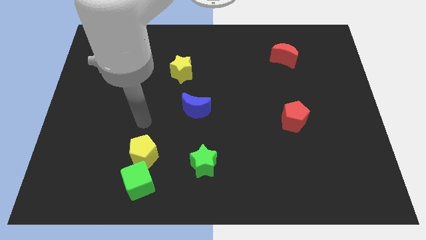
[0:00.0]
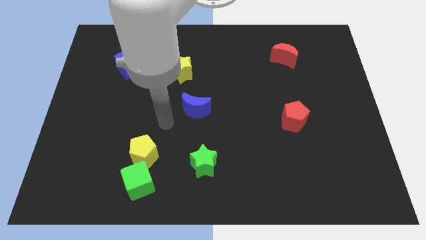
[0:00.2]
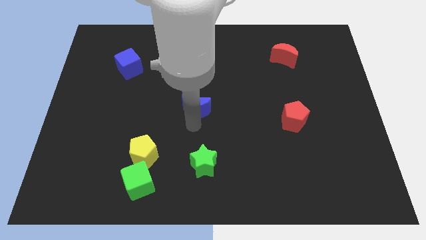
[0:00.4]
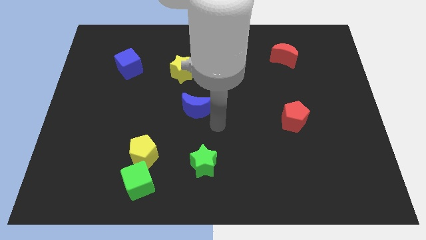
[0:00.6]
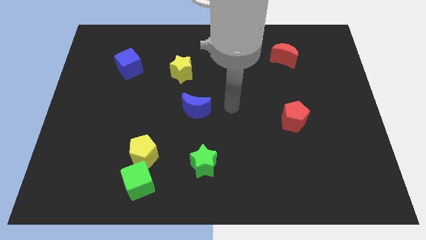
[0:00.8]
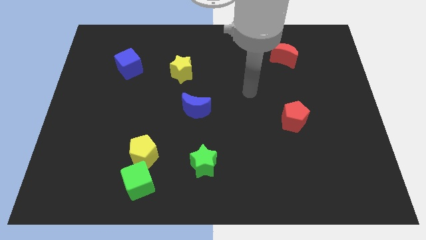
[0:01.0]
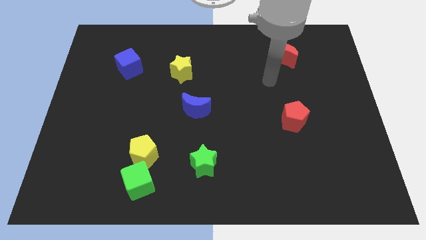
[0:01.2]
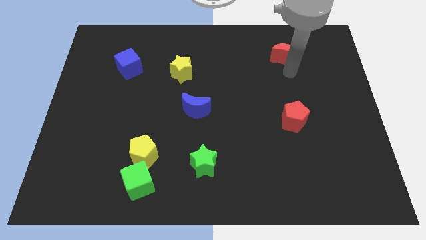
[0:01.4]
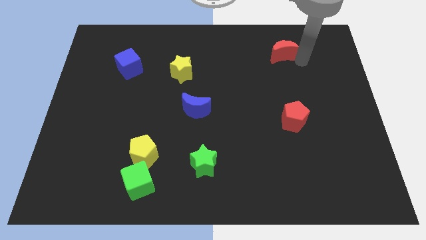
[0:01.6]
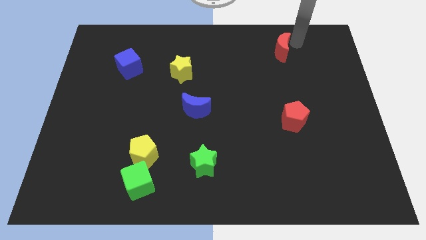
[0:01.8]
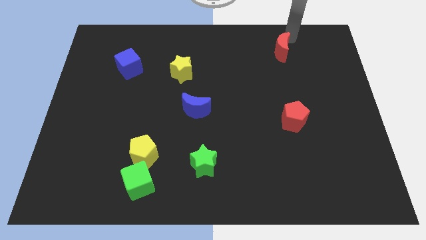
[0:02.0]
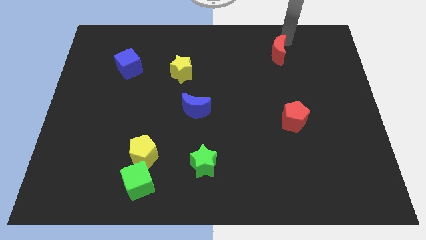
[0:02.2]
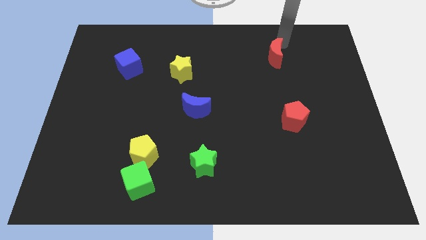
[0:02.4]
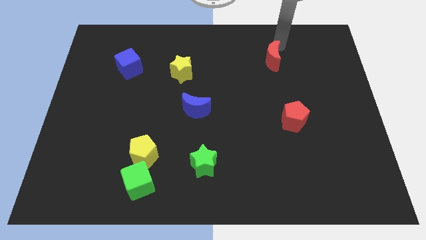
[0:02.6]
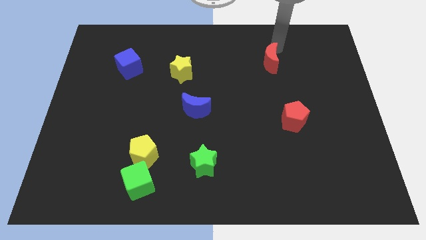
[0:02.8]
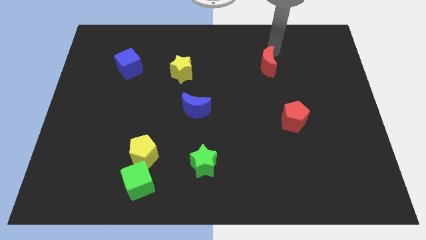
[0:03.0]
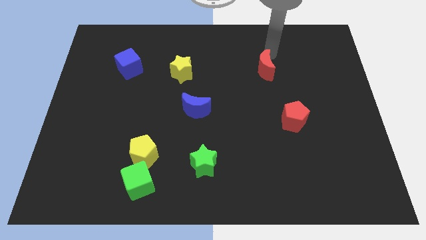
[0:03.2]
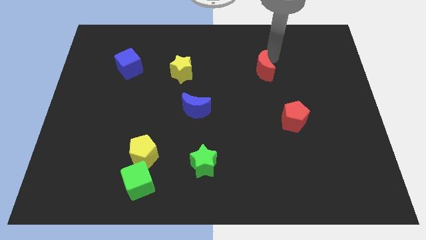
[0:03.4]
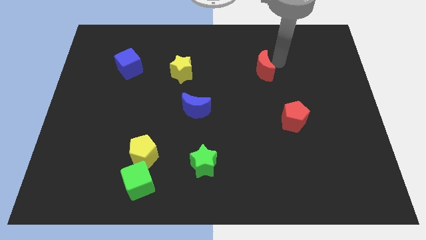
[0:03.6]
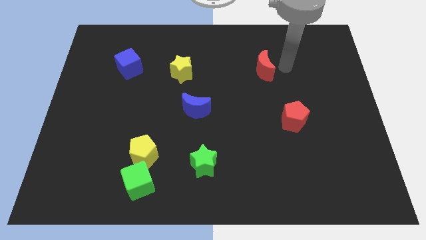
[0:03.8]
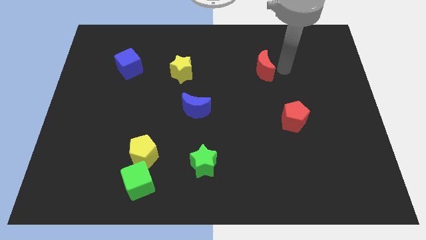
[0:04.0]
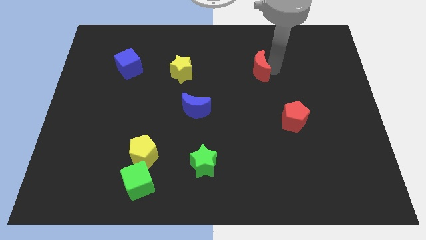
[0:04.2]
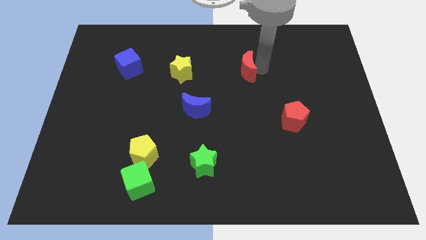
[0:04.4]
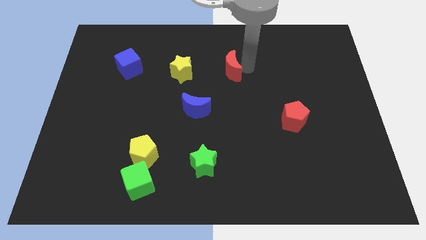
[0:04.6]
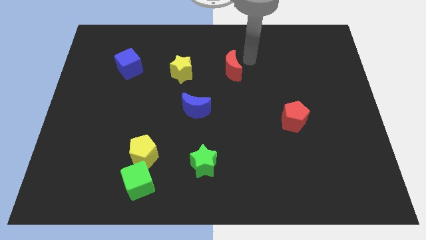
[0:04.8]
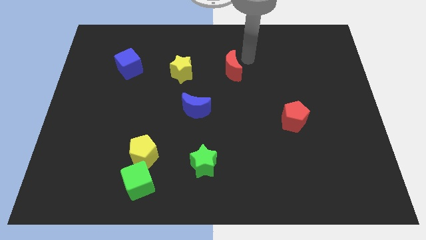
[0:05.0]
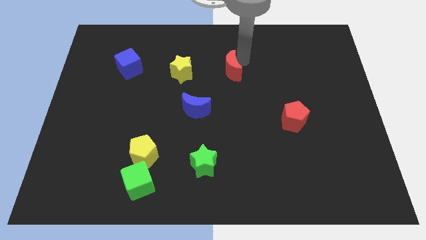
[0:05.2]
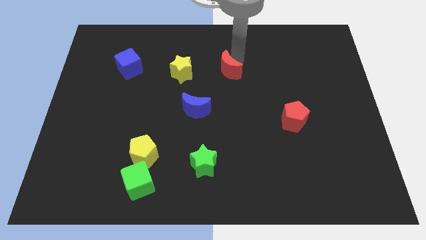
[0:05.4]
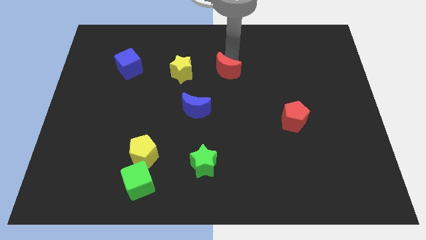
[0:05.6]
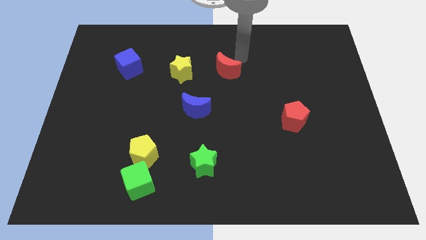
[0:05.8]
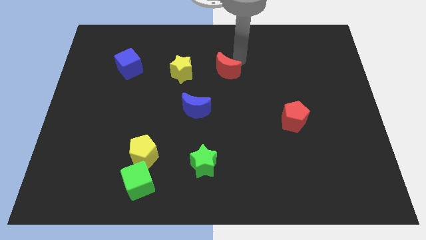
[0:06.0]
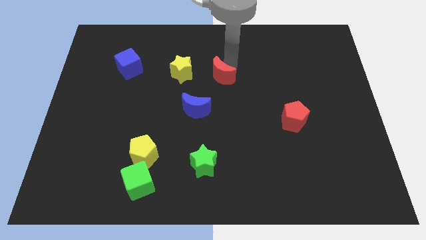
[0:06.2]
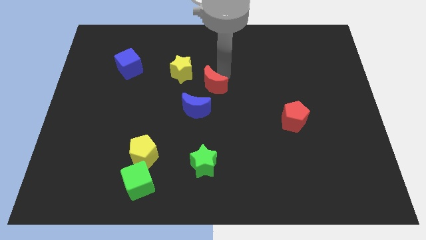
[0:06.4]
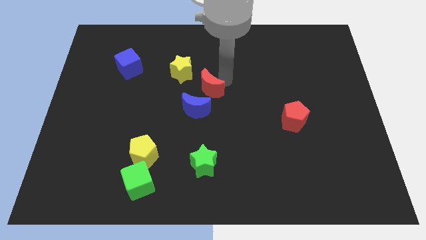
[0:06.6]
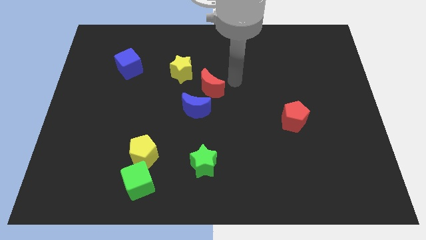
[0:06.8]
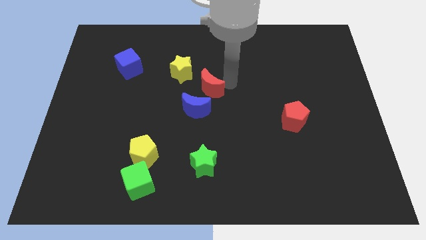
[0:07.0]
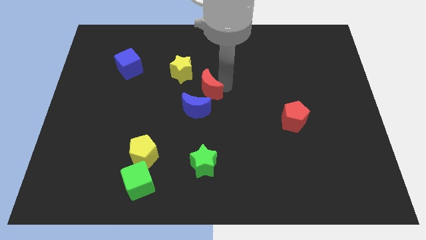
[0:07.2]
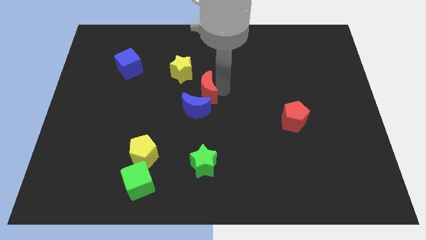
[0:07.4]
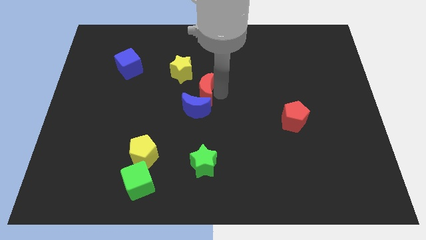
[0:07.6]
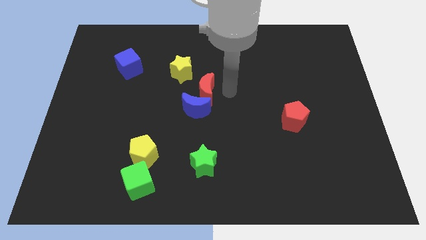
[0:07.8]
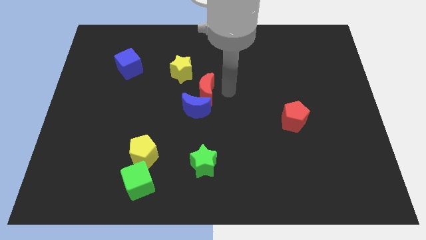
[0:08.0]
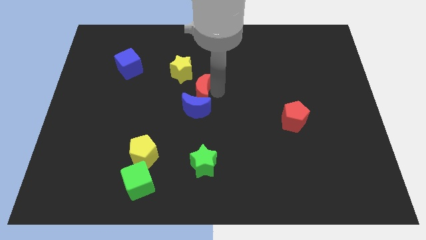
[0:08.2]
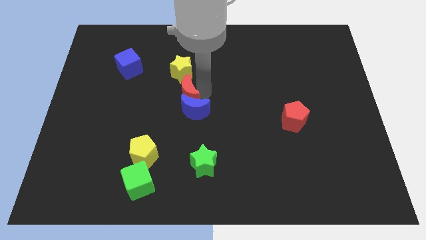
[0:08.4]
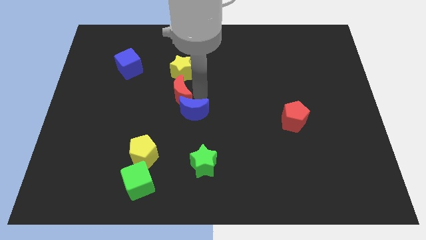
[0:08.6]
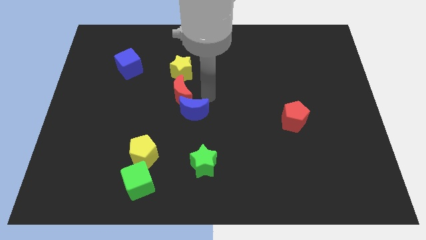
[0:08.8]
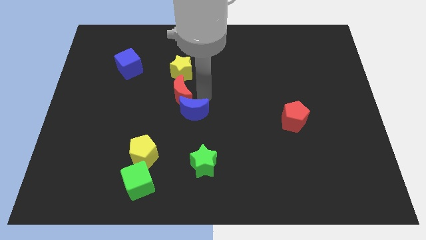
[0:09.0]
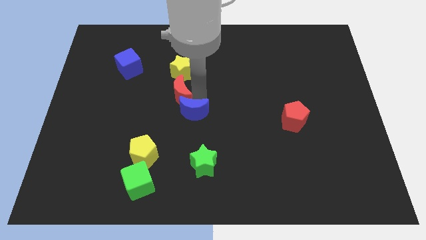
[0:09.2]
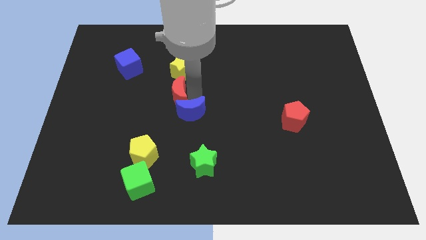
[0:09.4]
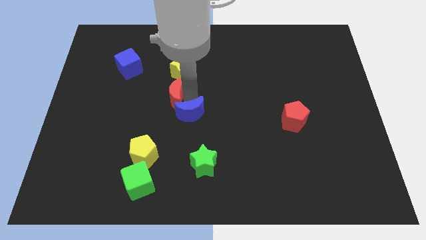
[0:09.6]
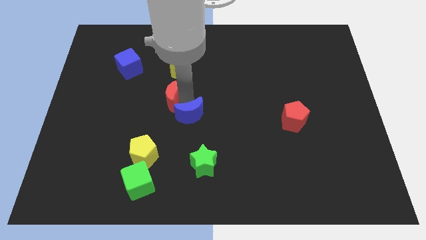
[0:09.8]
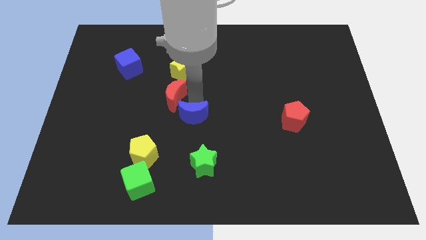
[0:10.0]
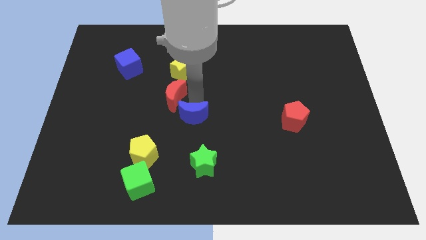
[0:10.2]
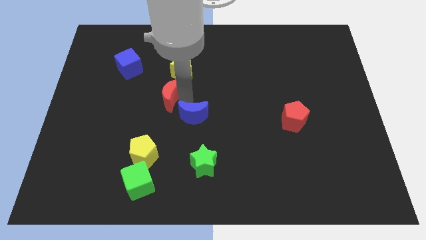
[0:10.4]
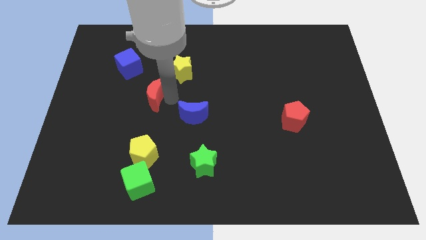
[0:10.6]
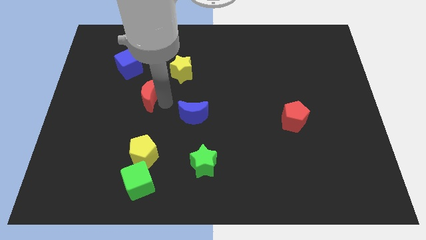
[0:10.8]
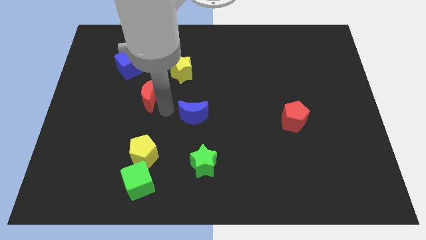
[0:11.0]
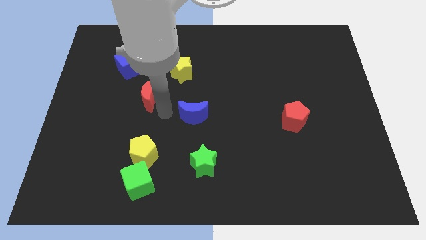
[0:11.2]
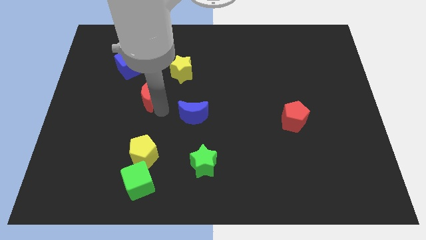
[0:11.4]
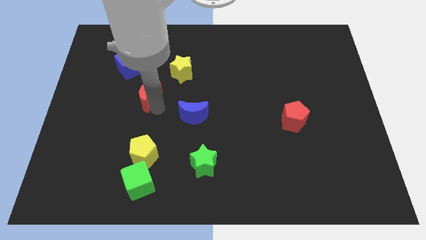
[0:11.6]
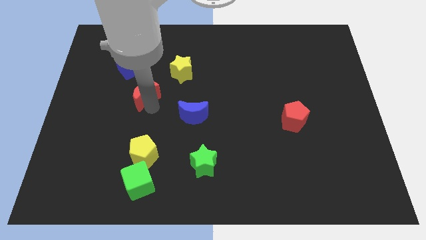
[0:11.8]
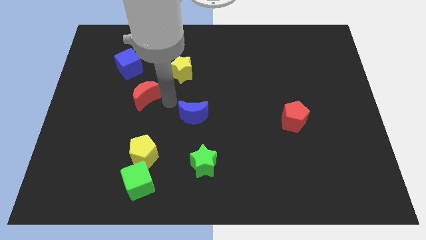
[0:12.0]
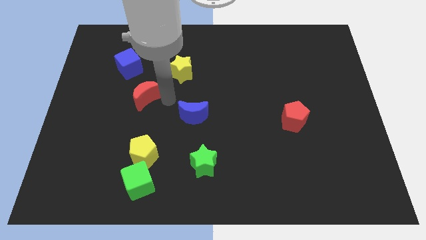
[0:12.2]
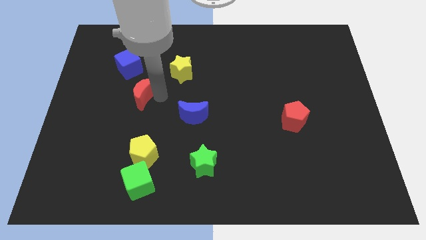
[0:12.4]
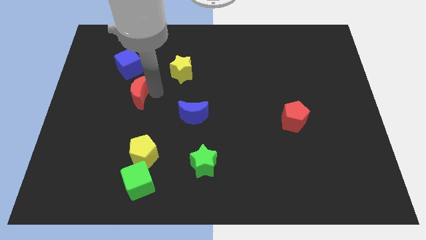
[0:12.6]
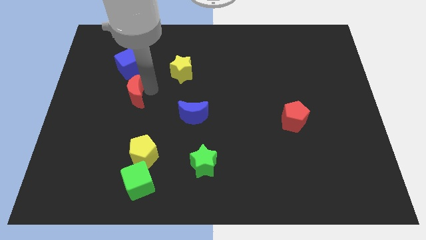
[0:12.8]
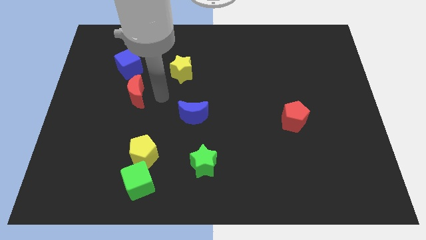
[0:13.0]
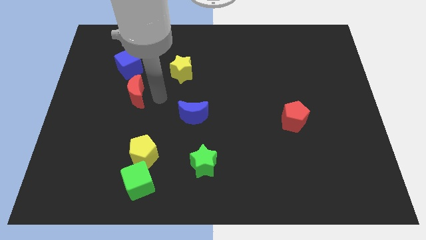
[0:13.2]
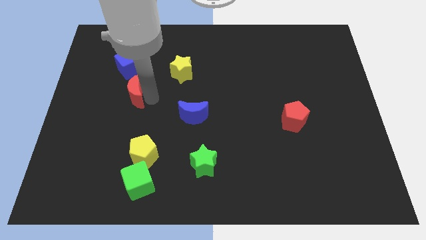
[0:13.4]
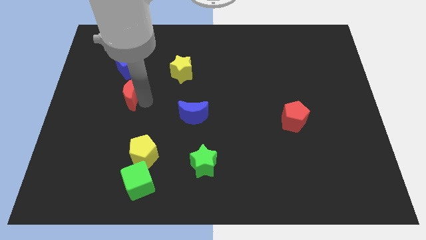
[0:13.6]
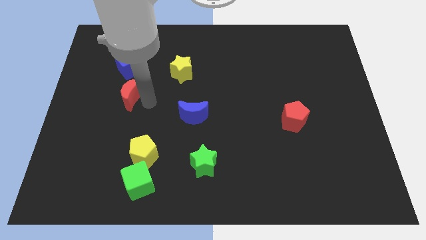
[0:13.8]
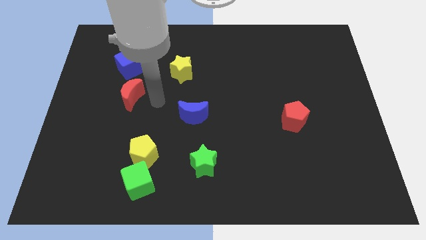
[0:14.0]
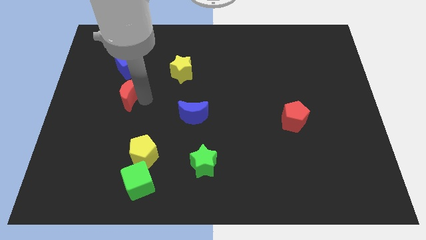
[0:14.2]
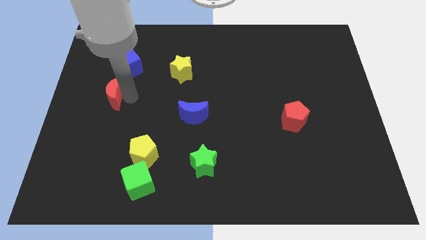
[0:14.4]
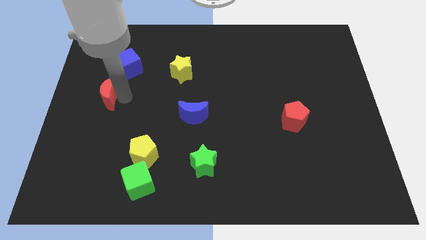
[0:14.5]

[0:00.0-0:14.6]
push the red moon to the left side of the board
